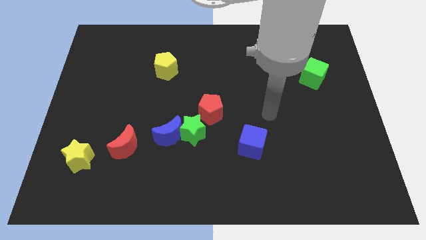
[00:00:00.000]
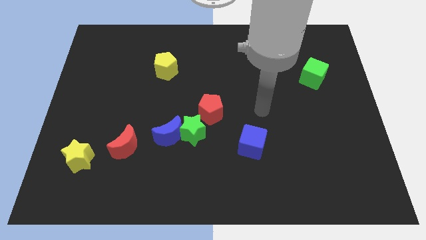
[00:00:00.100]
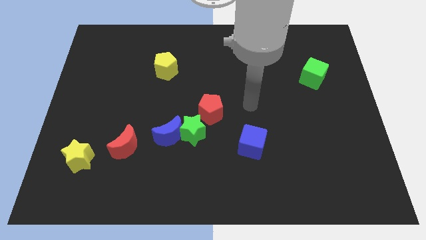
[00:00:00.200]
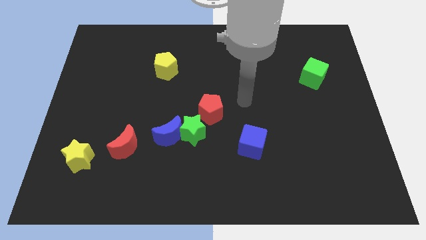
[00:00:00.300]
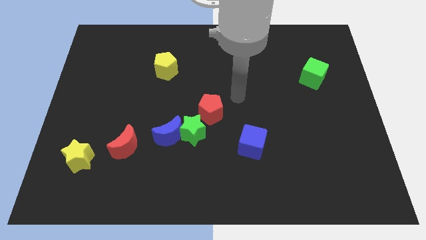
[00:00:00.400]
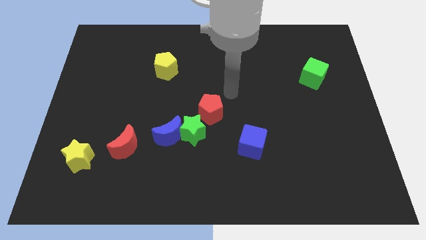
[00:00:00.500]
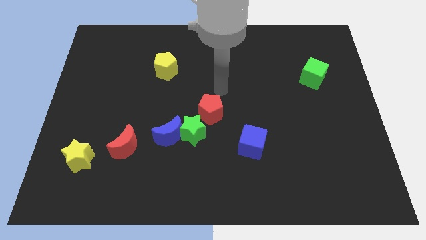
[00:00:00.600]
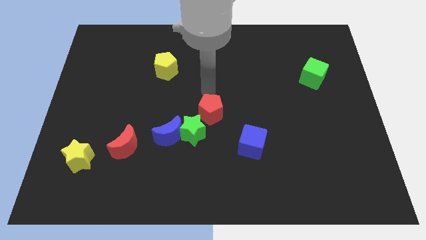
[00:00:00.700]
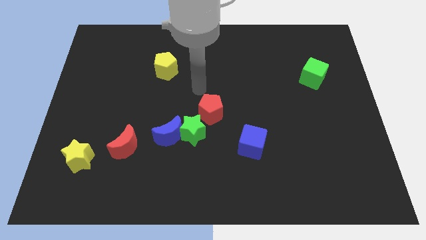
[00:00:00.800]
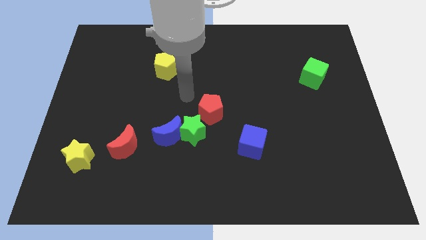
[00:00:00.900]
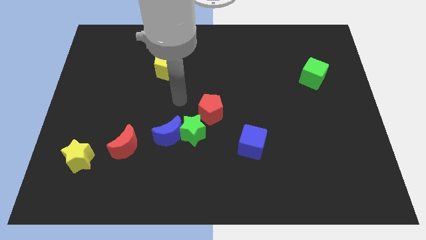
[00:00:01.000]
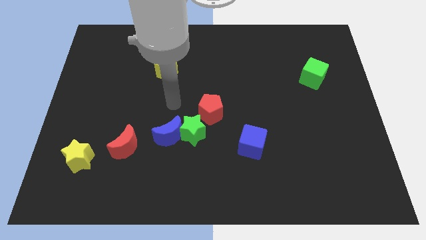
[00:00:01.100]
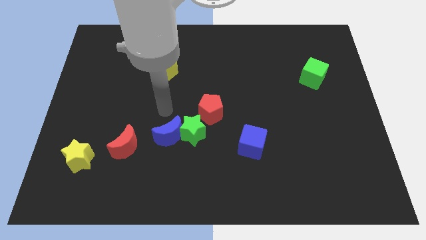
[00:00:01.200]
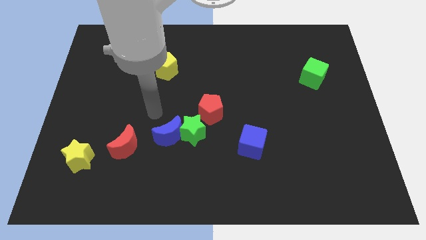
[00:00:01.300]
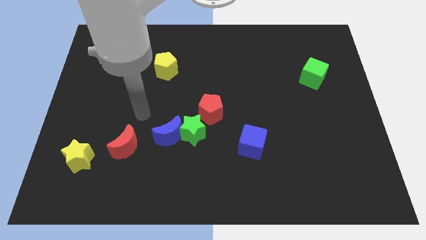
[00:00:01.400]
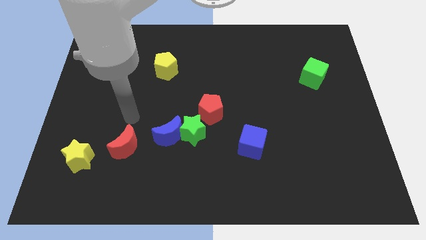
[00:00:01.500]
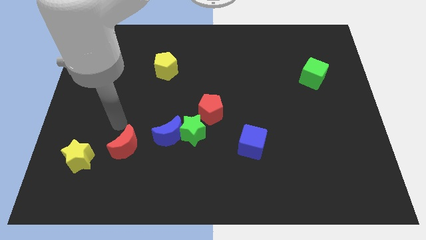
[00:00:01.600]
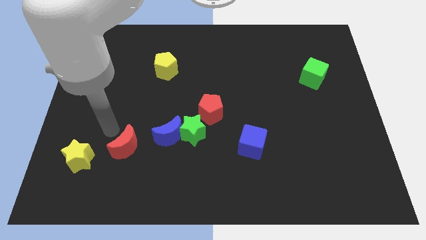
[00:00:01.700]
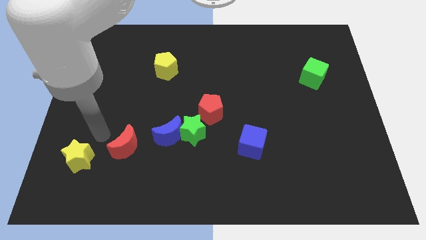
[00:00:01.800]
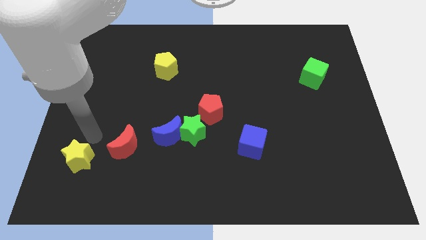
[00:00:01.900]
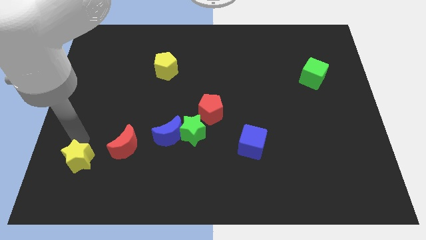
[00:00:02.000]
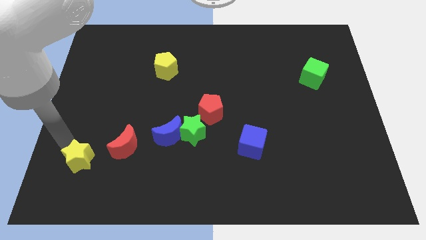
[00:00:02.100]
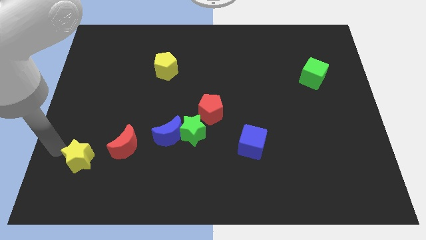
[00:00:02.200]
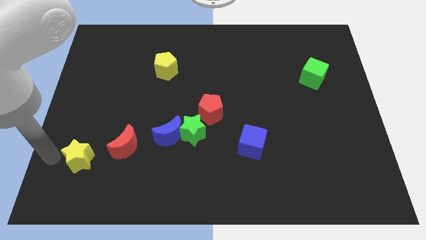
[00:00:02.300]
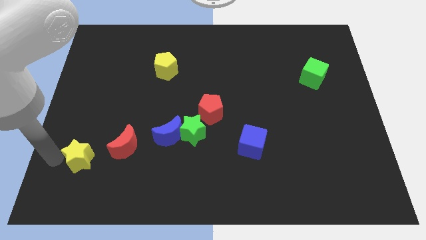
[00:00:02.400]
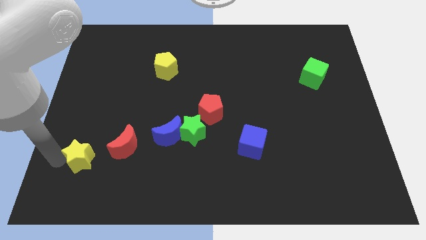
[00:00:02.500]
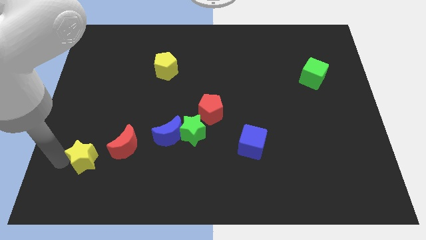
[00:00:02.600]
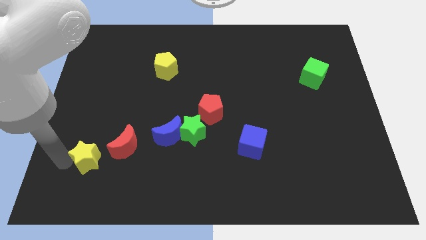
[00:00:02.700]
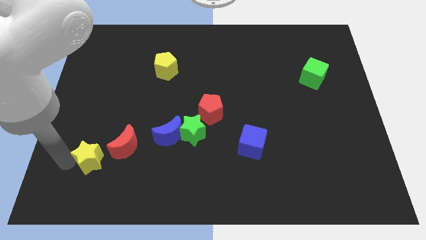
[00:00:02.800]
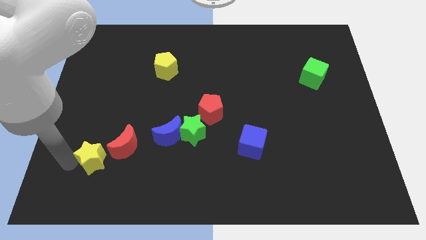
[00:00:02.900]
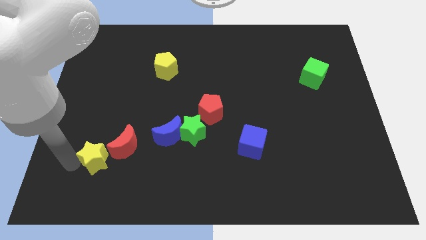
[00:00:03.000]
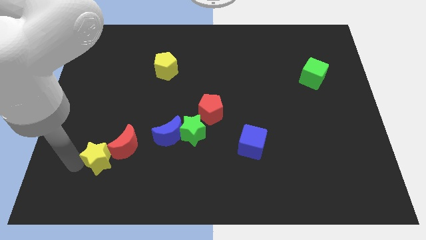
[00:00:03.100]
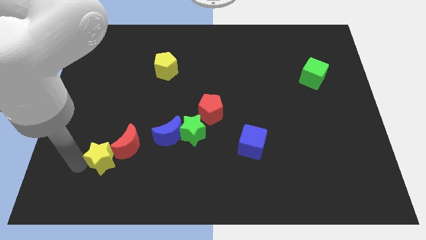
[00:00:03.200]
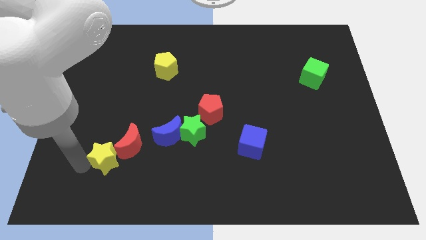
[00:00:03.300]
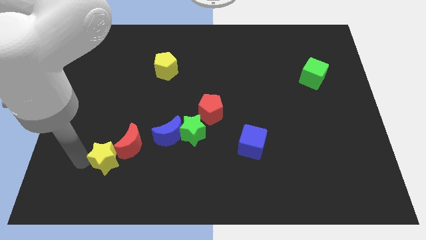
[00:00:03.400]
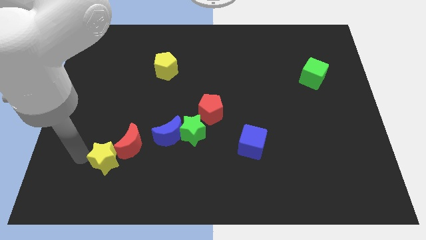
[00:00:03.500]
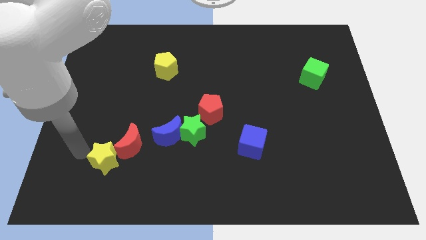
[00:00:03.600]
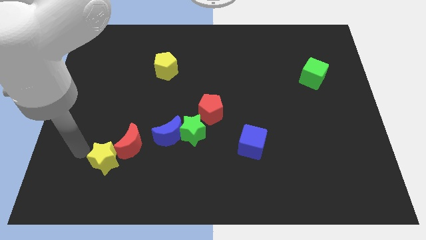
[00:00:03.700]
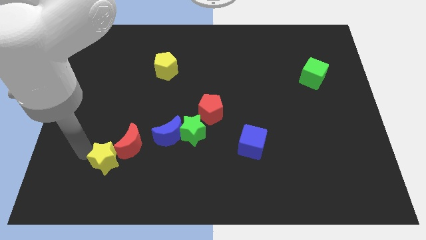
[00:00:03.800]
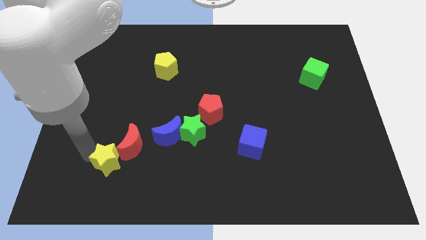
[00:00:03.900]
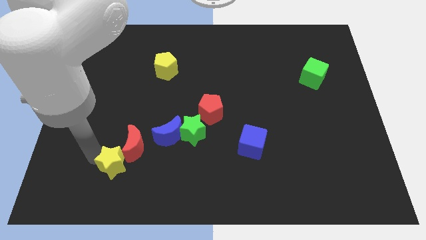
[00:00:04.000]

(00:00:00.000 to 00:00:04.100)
push the yellow star right slightly

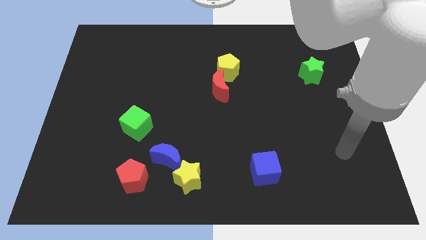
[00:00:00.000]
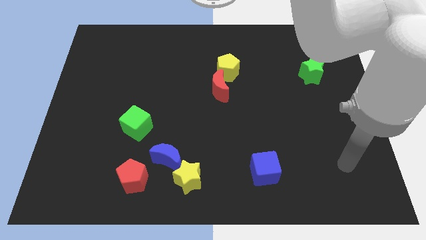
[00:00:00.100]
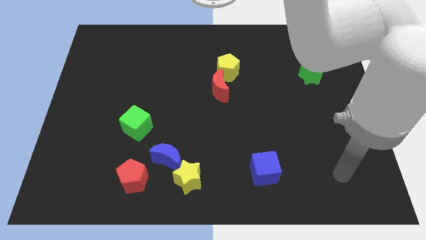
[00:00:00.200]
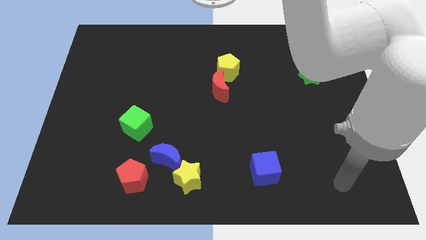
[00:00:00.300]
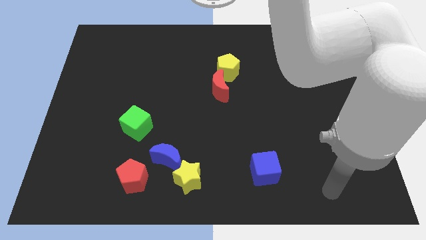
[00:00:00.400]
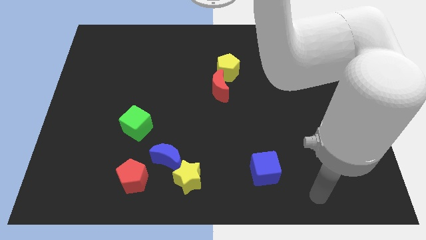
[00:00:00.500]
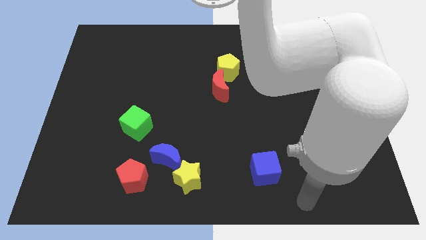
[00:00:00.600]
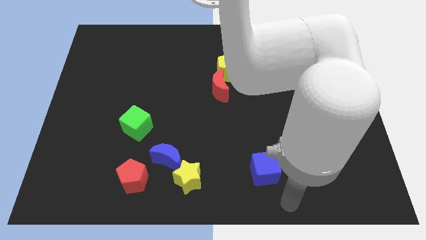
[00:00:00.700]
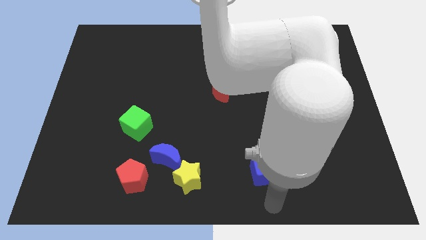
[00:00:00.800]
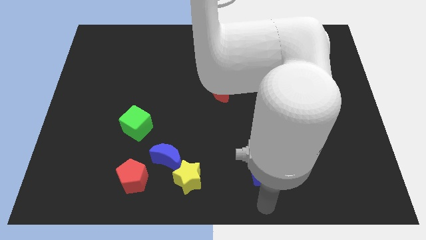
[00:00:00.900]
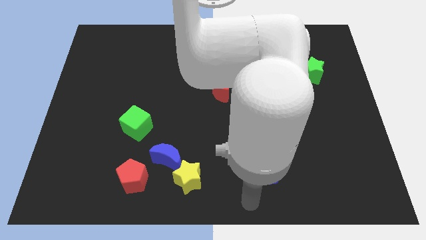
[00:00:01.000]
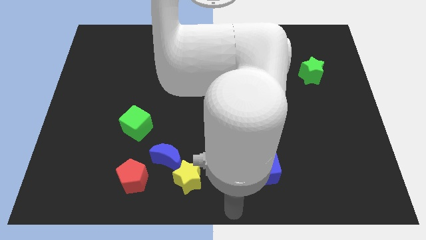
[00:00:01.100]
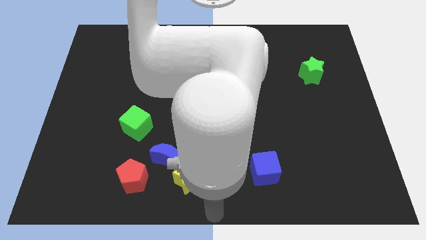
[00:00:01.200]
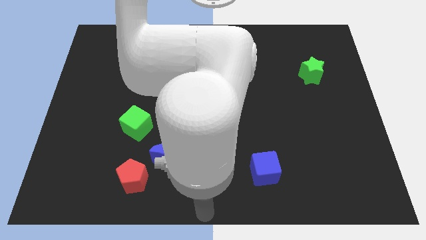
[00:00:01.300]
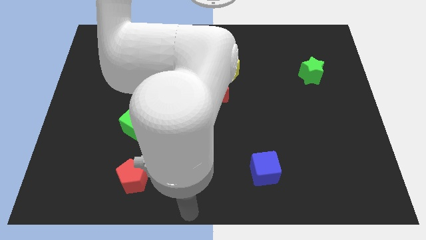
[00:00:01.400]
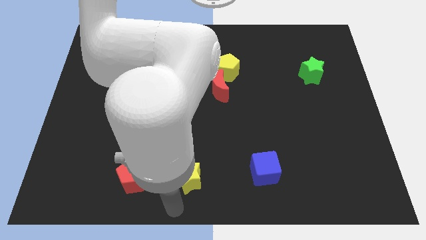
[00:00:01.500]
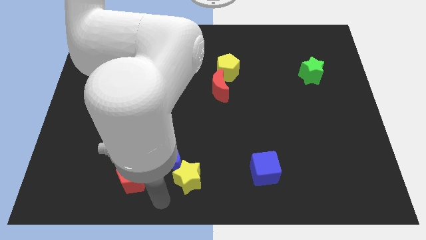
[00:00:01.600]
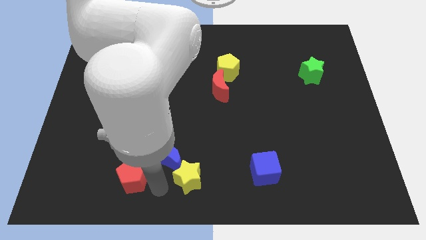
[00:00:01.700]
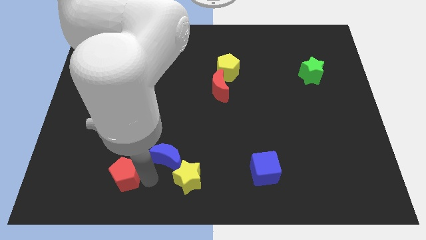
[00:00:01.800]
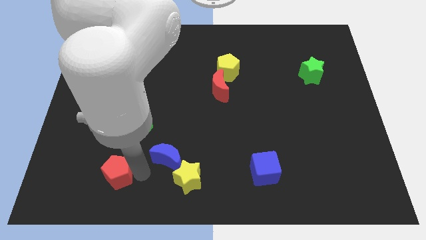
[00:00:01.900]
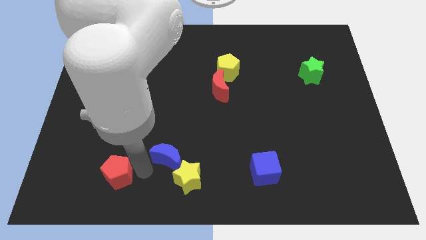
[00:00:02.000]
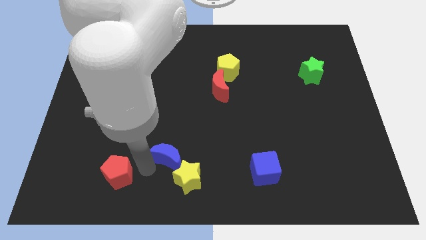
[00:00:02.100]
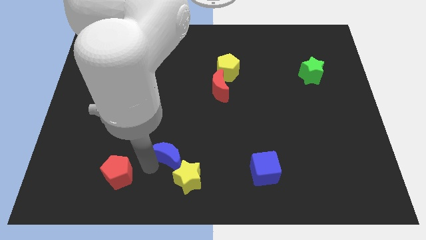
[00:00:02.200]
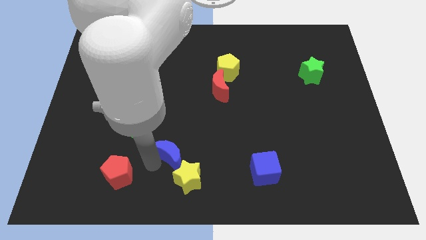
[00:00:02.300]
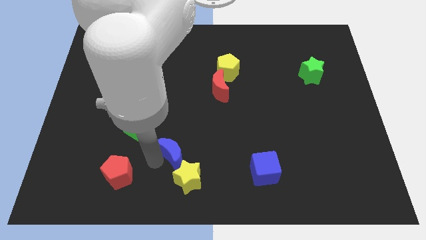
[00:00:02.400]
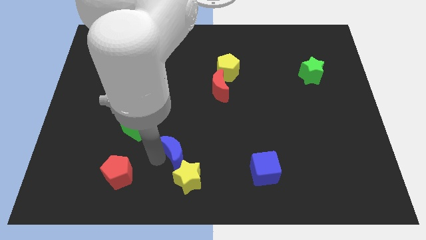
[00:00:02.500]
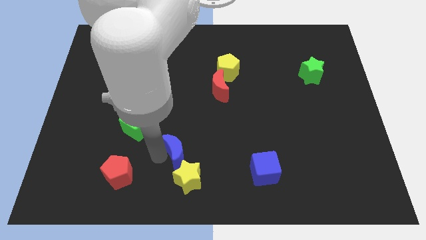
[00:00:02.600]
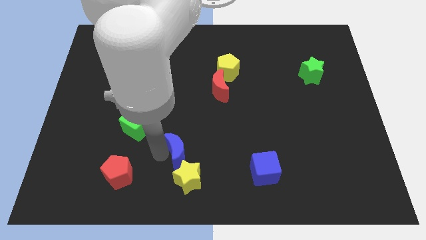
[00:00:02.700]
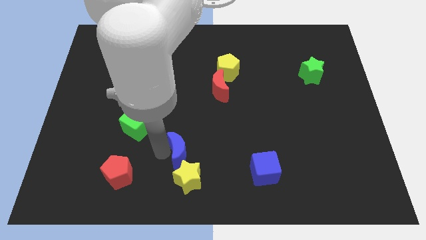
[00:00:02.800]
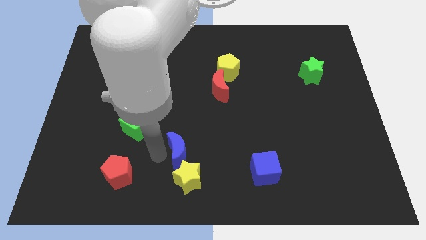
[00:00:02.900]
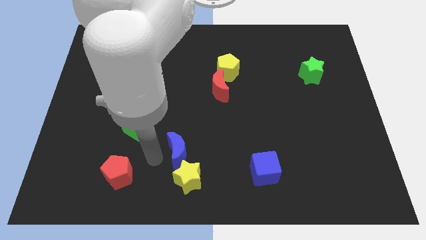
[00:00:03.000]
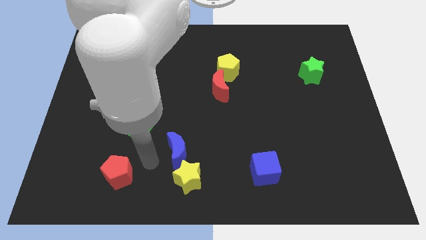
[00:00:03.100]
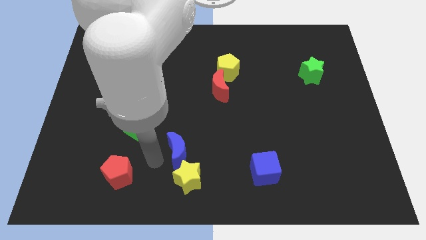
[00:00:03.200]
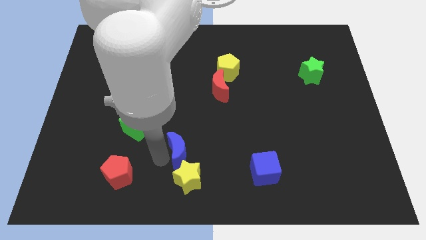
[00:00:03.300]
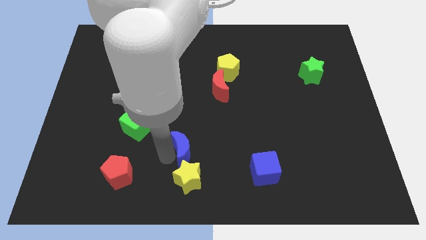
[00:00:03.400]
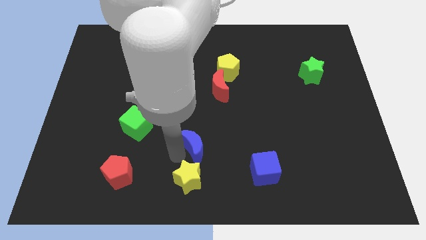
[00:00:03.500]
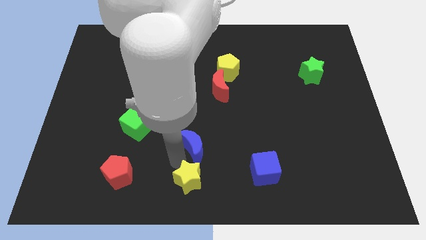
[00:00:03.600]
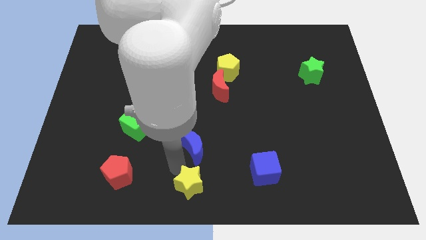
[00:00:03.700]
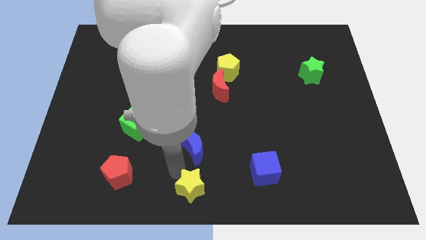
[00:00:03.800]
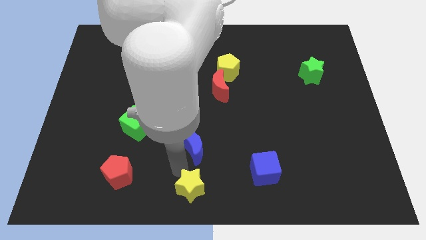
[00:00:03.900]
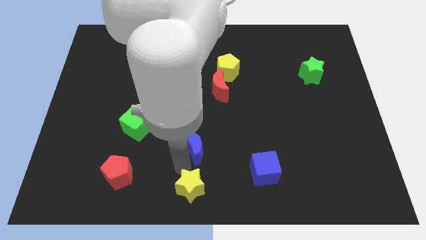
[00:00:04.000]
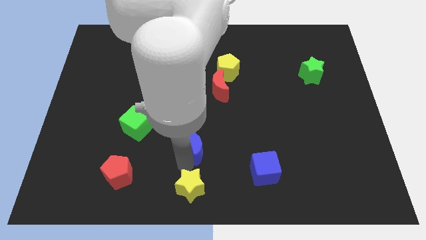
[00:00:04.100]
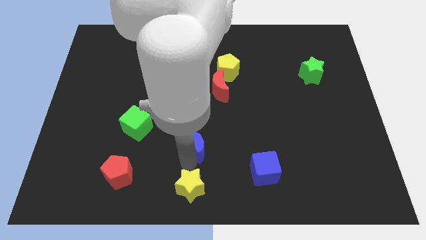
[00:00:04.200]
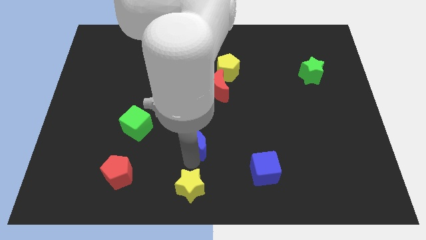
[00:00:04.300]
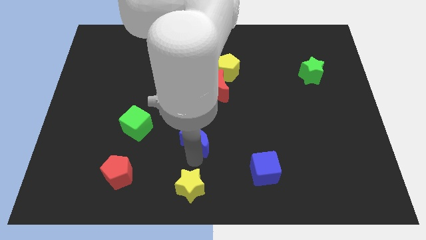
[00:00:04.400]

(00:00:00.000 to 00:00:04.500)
slightly push the blue moon up and to the right diagonally
